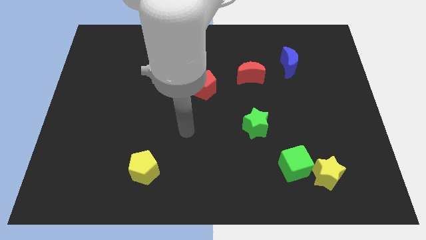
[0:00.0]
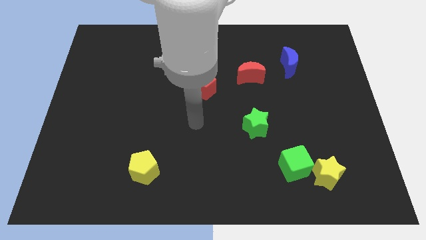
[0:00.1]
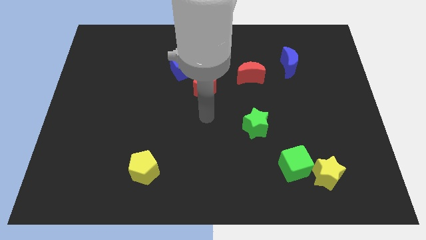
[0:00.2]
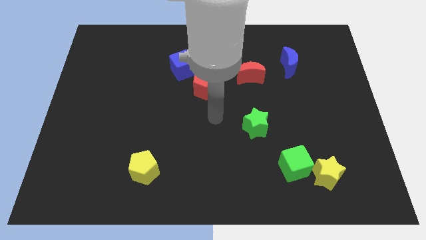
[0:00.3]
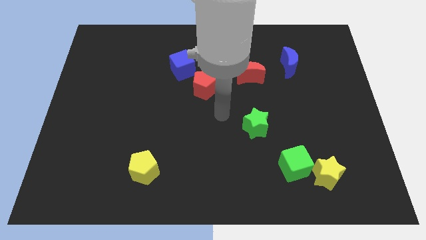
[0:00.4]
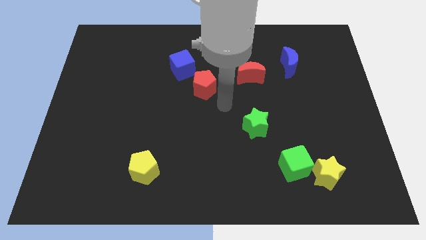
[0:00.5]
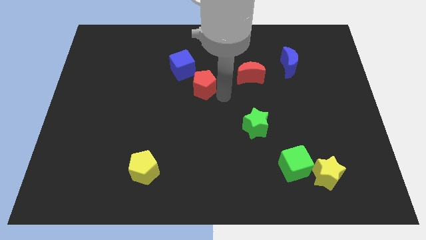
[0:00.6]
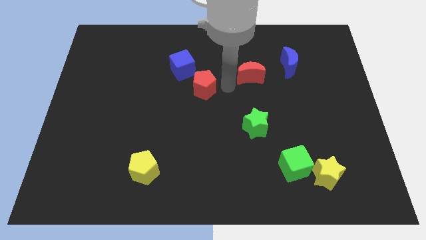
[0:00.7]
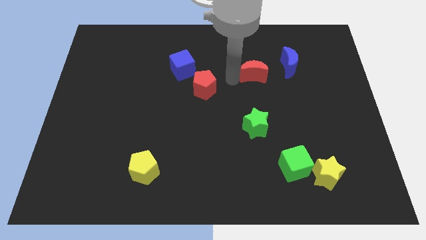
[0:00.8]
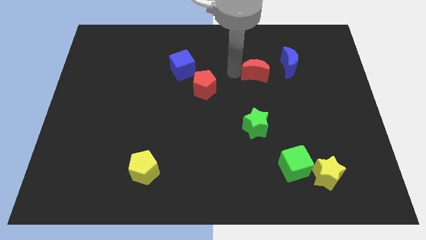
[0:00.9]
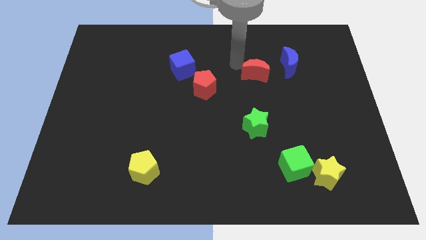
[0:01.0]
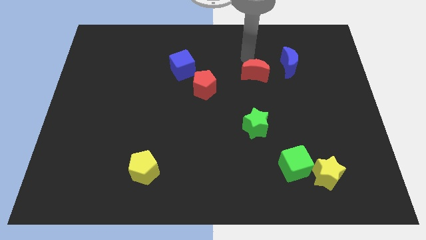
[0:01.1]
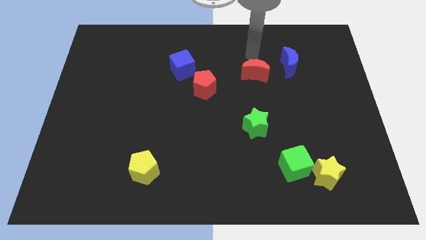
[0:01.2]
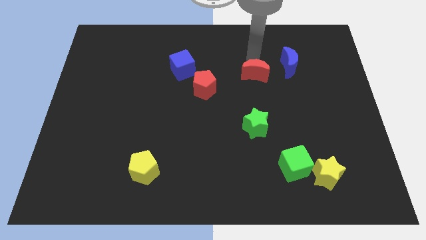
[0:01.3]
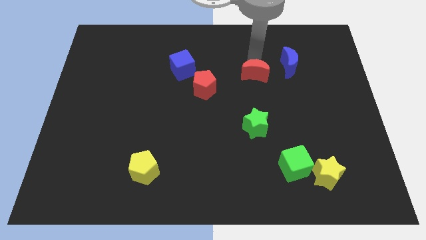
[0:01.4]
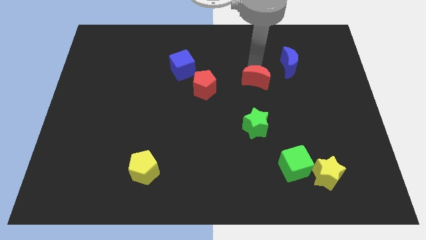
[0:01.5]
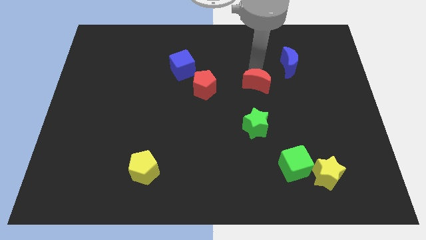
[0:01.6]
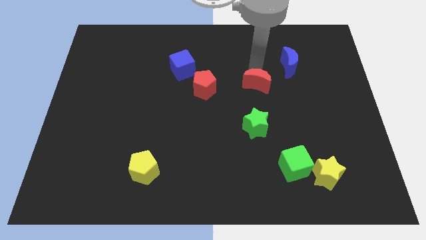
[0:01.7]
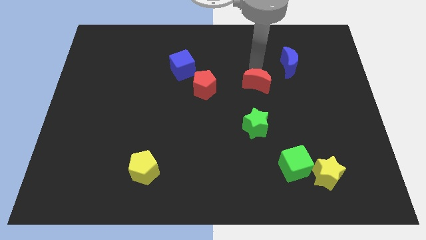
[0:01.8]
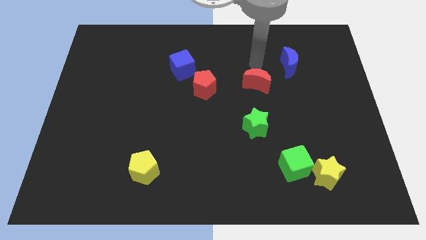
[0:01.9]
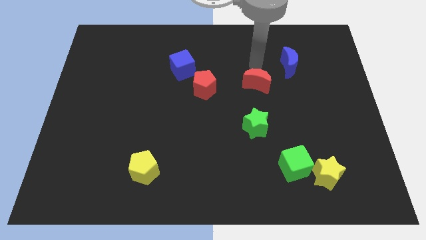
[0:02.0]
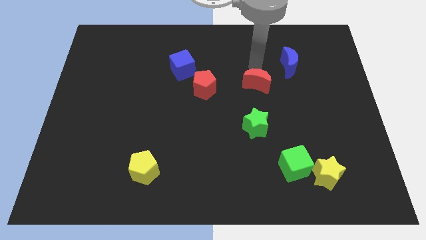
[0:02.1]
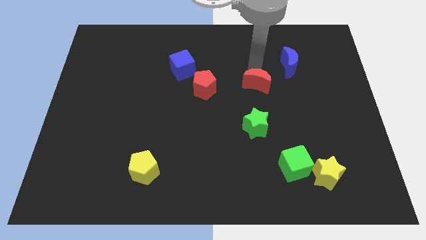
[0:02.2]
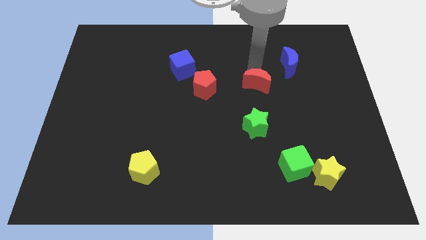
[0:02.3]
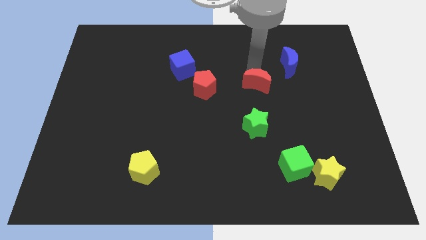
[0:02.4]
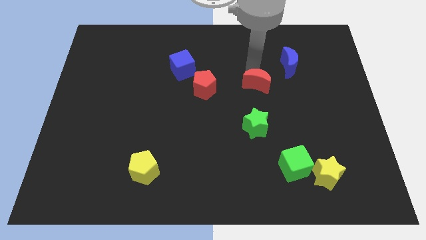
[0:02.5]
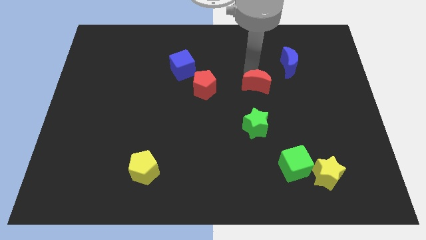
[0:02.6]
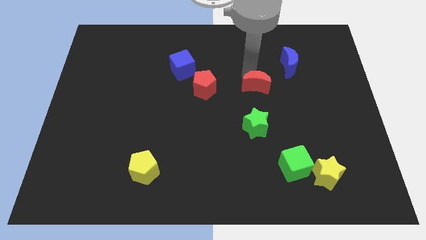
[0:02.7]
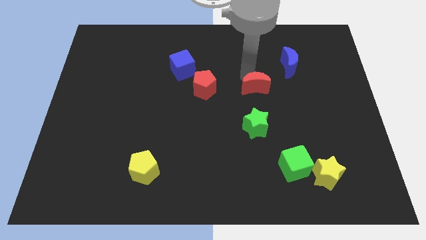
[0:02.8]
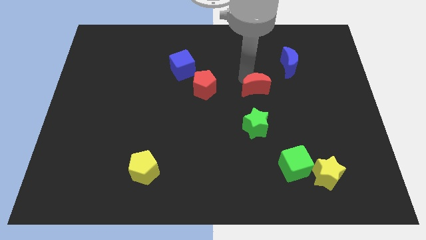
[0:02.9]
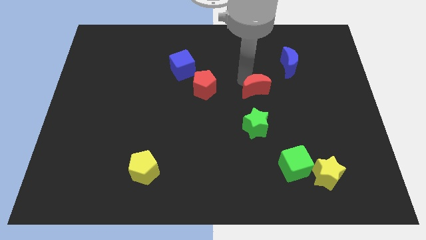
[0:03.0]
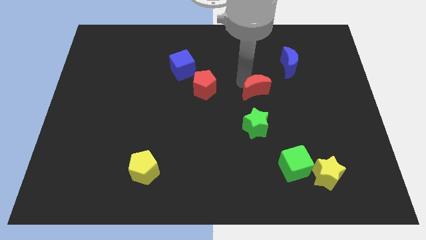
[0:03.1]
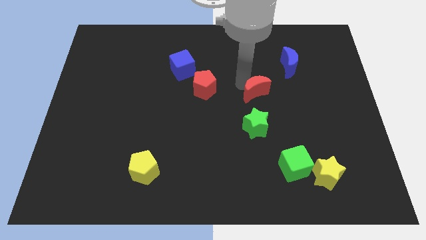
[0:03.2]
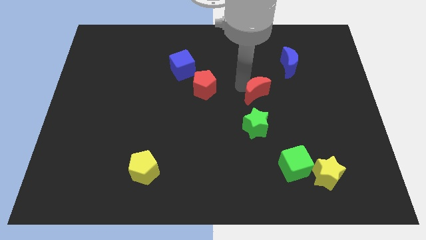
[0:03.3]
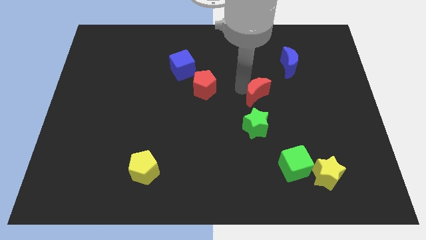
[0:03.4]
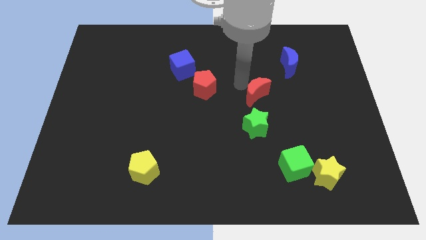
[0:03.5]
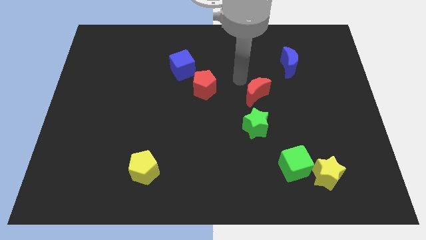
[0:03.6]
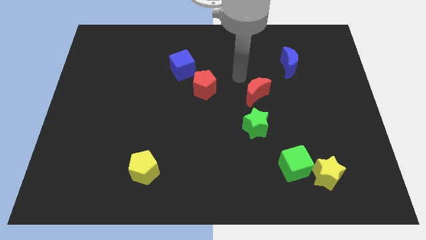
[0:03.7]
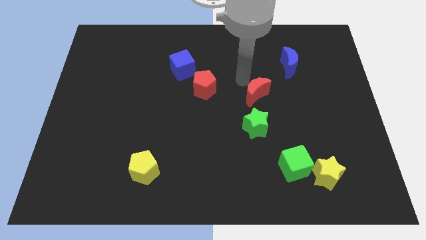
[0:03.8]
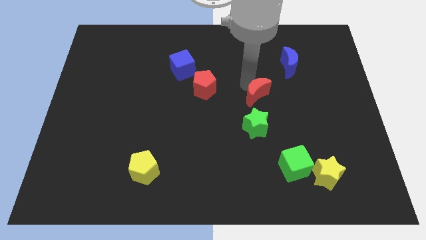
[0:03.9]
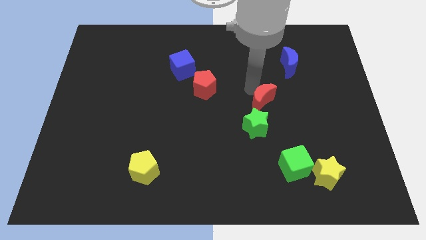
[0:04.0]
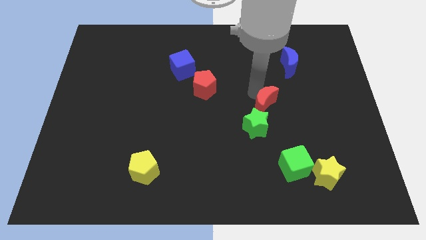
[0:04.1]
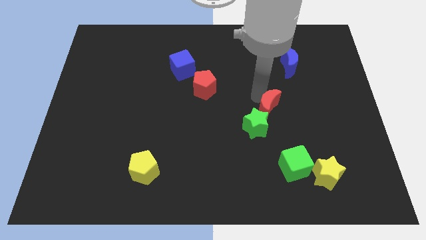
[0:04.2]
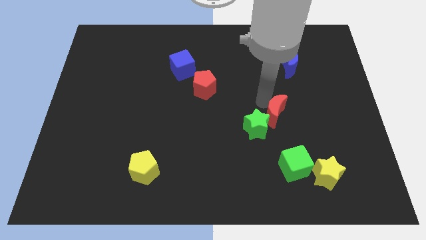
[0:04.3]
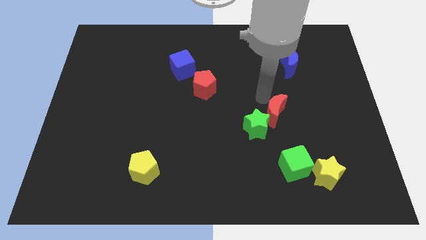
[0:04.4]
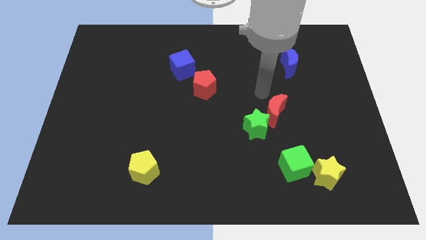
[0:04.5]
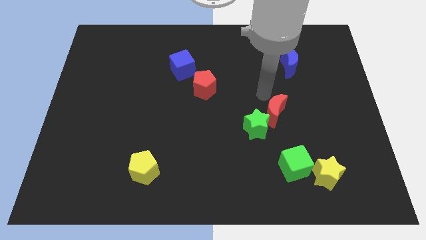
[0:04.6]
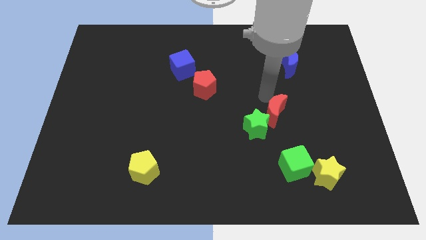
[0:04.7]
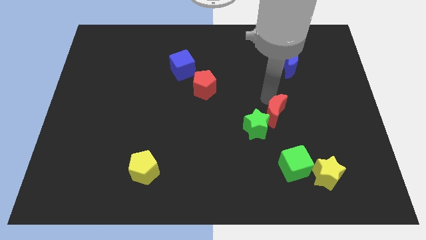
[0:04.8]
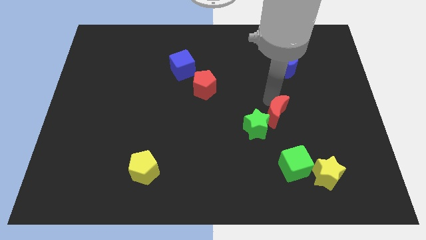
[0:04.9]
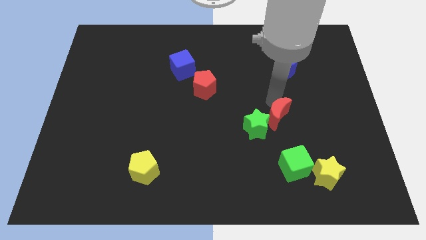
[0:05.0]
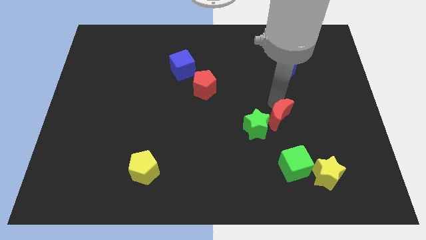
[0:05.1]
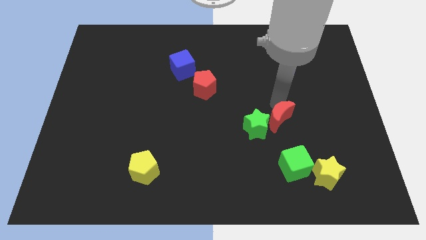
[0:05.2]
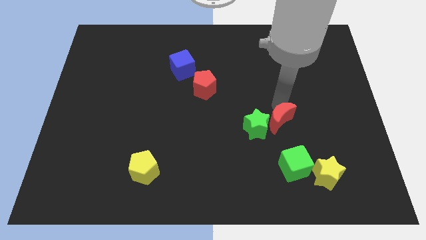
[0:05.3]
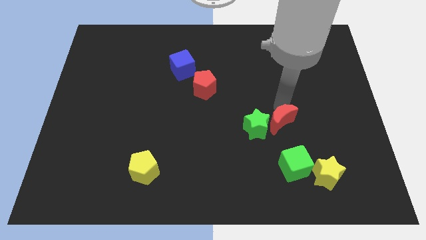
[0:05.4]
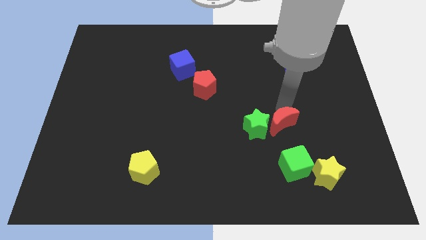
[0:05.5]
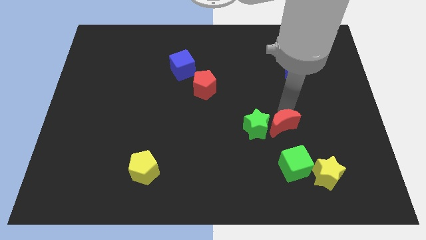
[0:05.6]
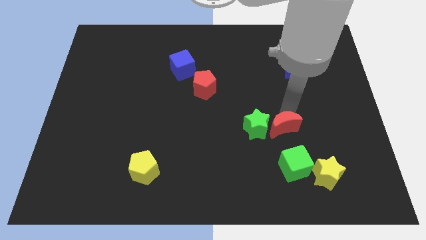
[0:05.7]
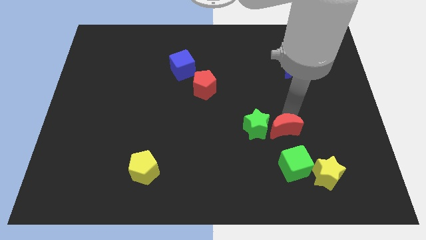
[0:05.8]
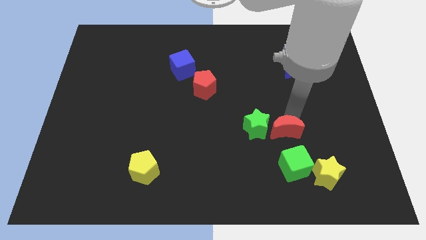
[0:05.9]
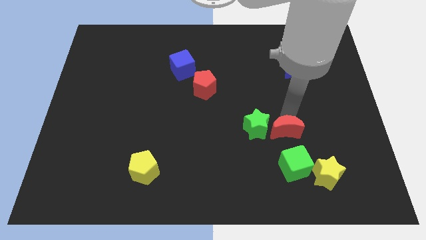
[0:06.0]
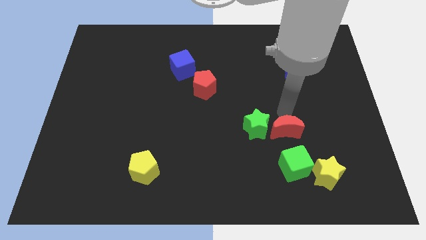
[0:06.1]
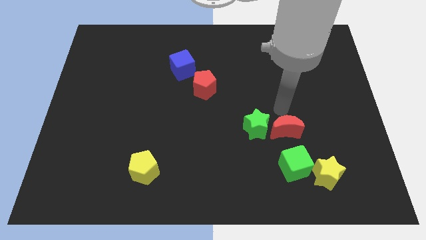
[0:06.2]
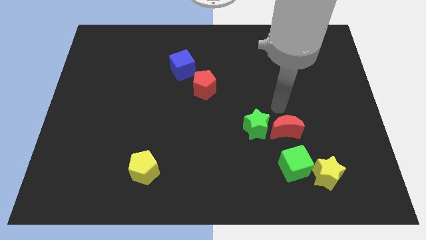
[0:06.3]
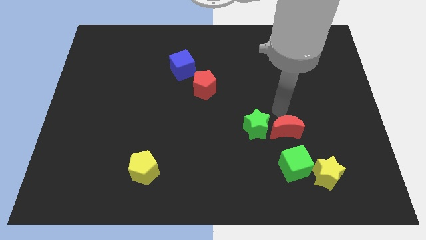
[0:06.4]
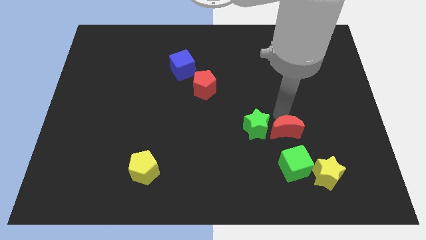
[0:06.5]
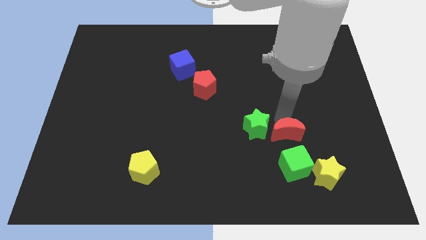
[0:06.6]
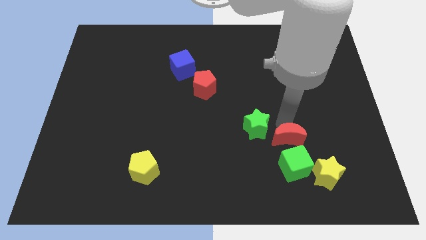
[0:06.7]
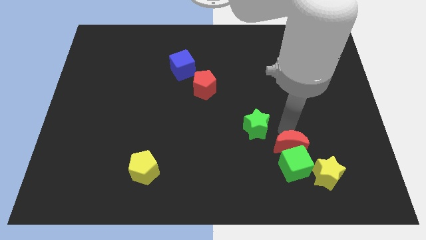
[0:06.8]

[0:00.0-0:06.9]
slide the red moon to the green cube
